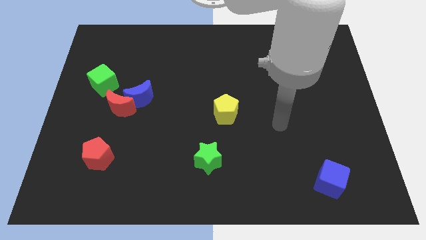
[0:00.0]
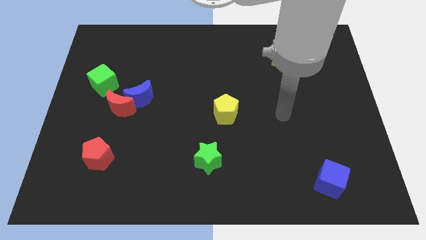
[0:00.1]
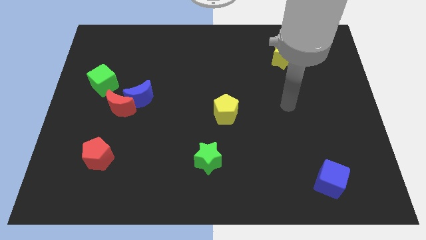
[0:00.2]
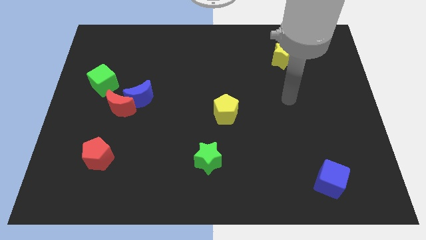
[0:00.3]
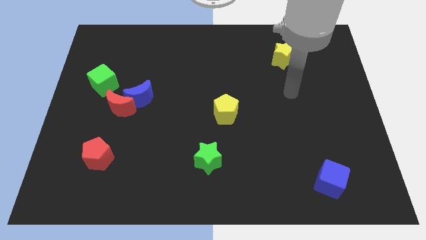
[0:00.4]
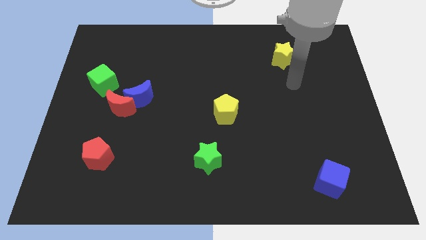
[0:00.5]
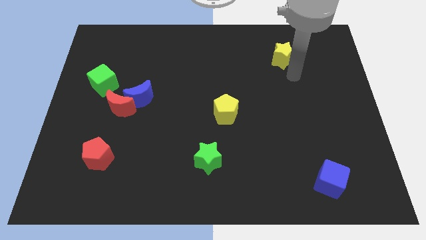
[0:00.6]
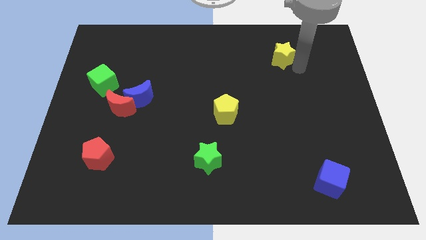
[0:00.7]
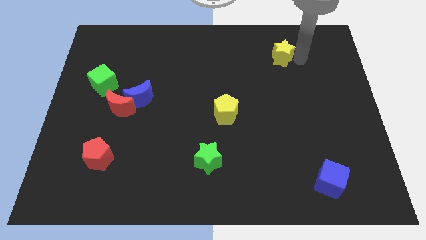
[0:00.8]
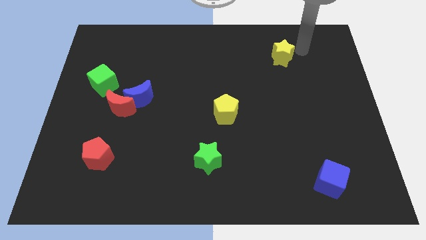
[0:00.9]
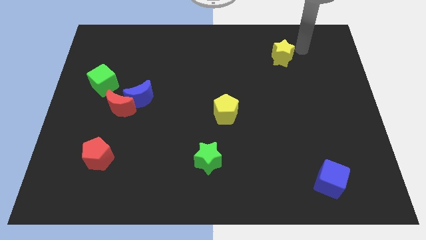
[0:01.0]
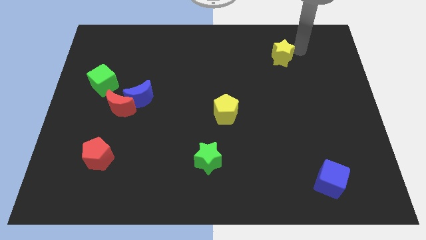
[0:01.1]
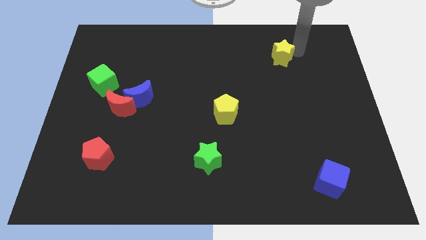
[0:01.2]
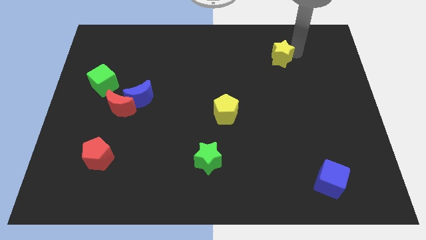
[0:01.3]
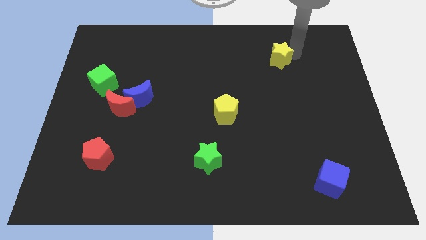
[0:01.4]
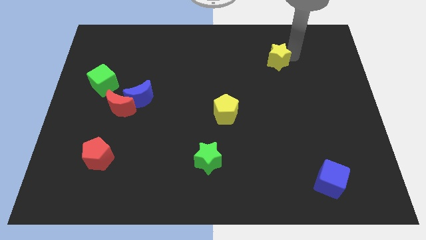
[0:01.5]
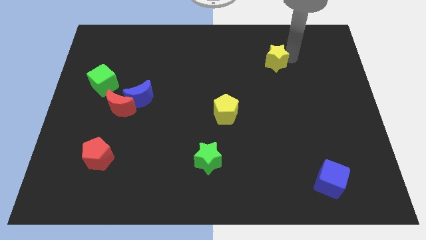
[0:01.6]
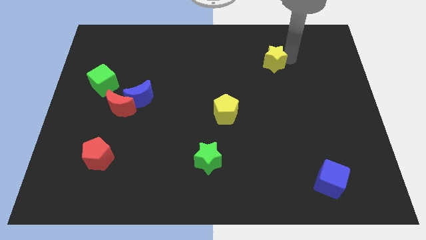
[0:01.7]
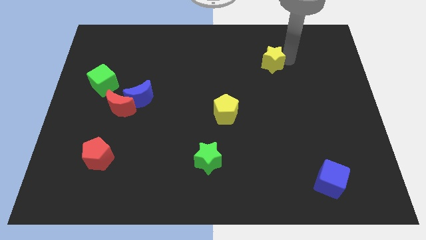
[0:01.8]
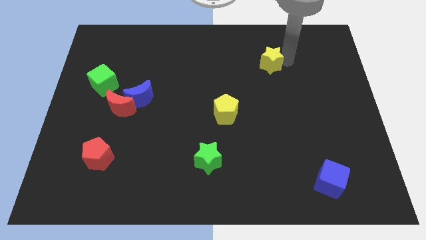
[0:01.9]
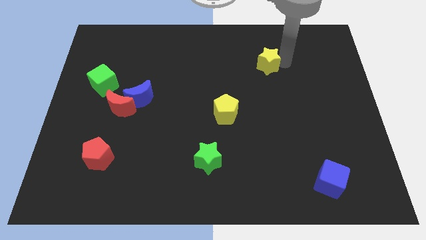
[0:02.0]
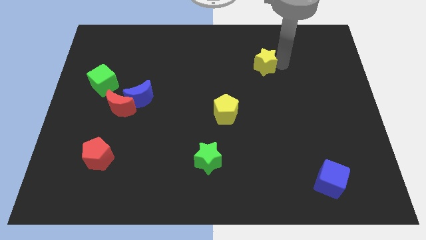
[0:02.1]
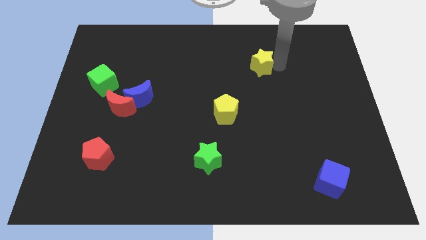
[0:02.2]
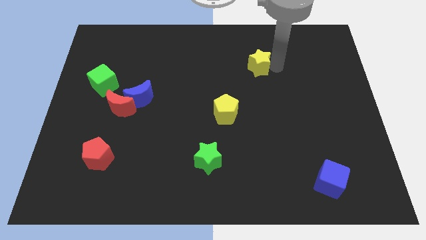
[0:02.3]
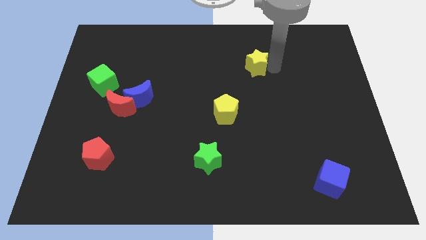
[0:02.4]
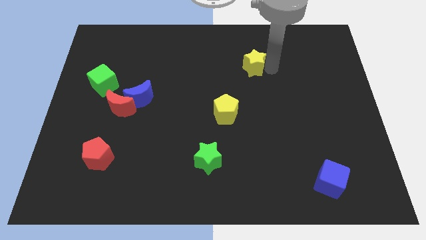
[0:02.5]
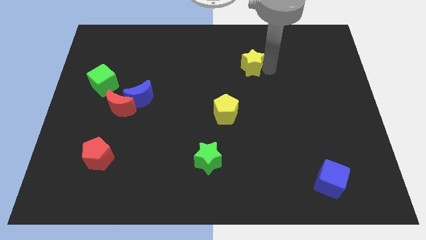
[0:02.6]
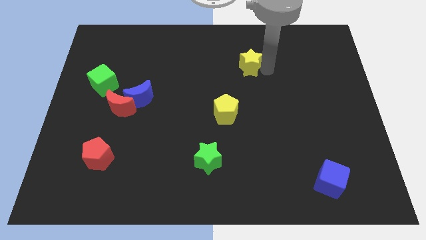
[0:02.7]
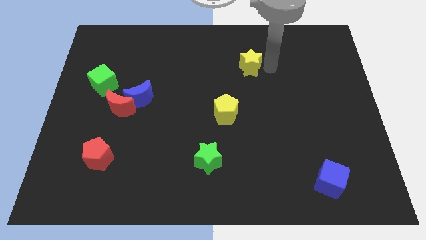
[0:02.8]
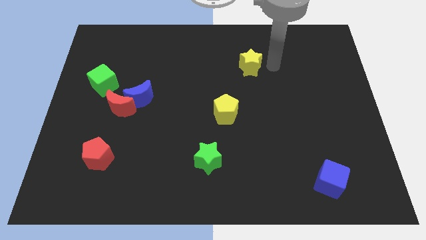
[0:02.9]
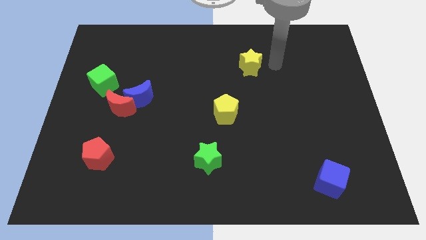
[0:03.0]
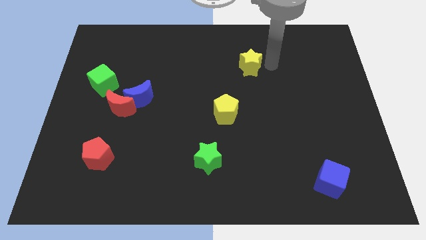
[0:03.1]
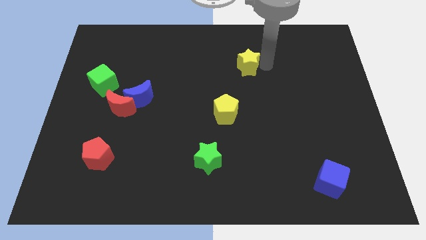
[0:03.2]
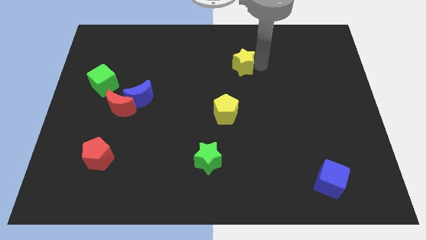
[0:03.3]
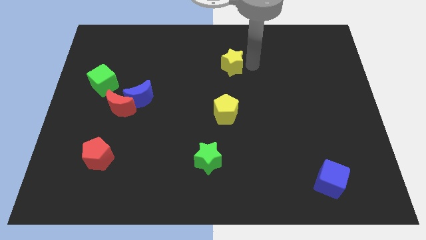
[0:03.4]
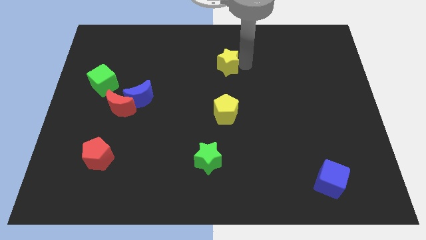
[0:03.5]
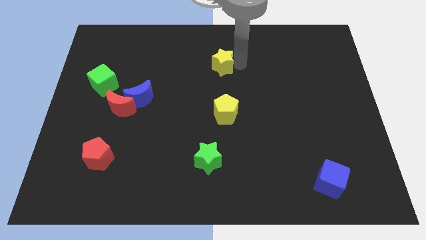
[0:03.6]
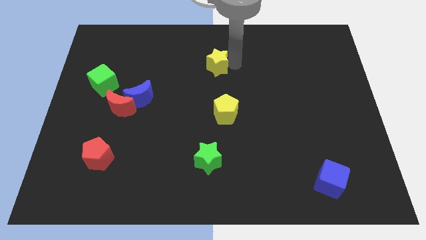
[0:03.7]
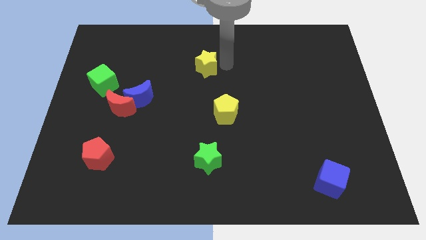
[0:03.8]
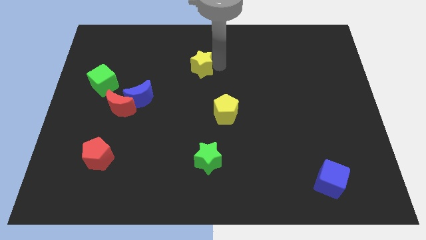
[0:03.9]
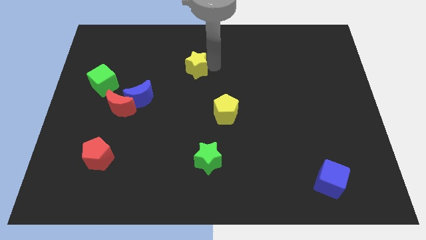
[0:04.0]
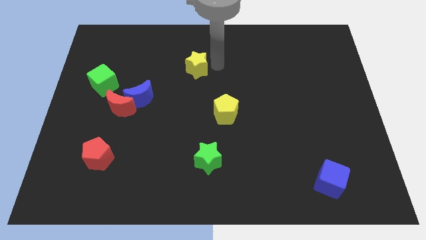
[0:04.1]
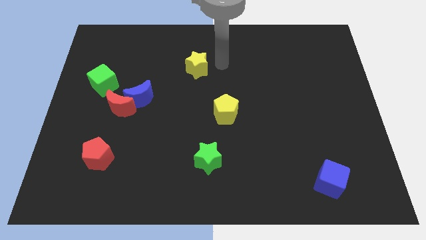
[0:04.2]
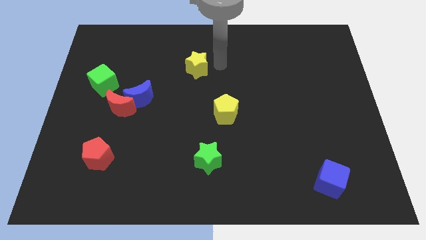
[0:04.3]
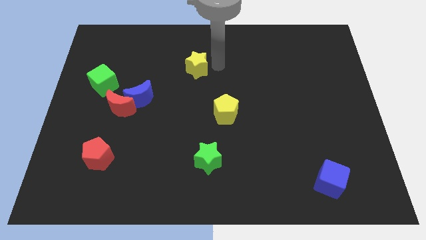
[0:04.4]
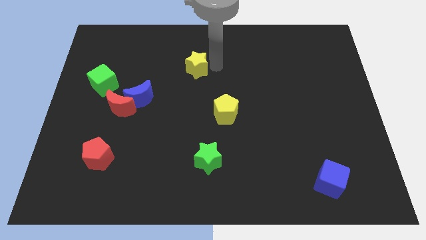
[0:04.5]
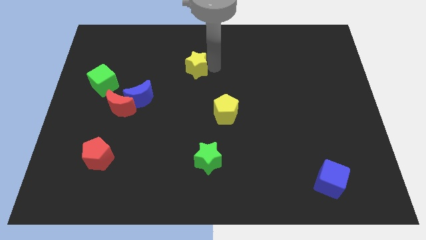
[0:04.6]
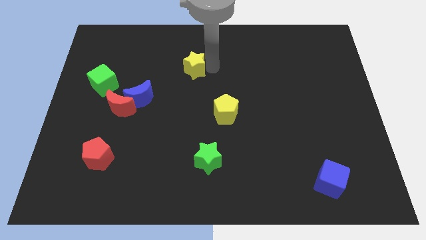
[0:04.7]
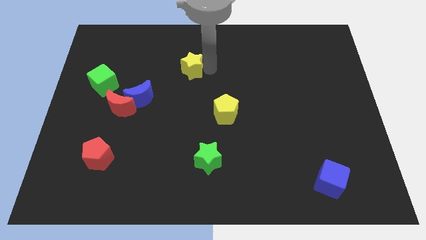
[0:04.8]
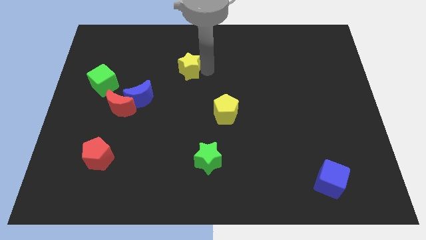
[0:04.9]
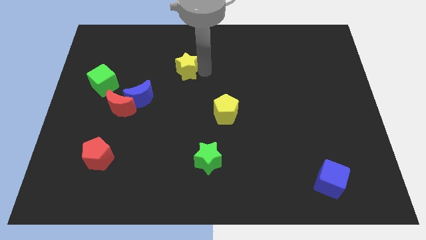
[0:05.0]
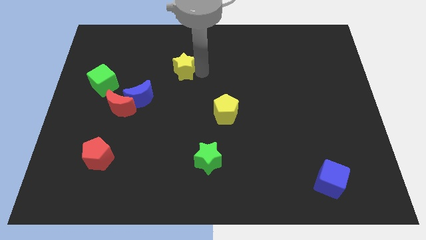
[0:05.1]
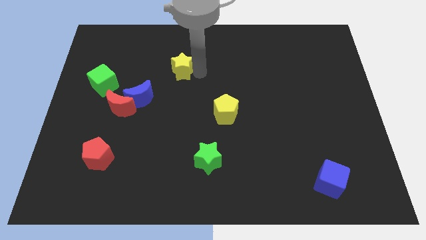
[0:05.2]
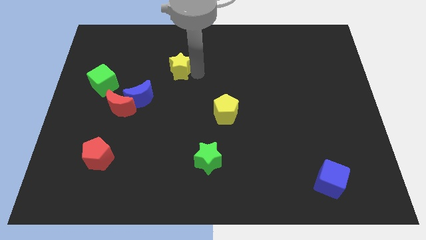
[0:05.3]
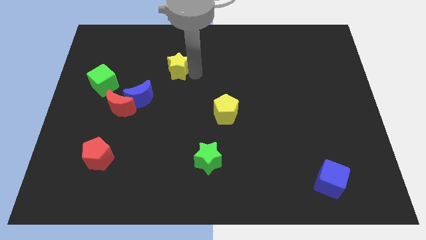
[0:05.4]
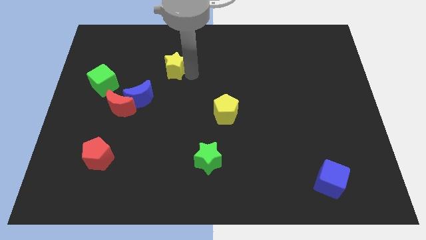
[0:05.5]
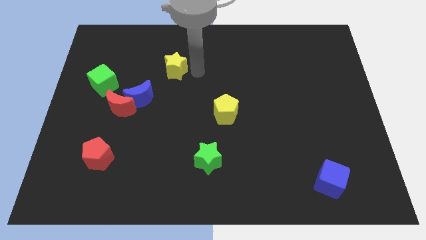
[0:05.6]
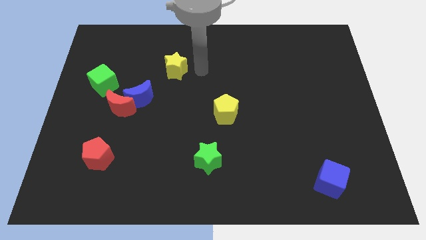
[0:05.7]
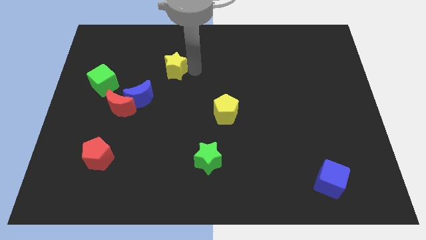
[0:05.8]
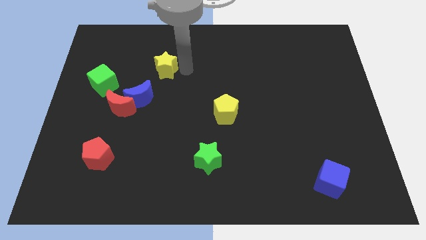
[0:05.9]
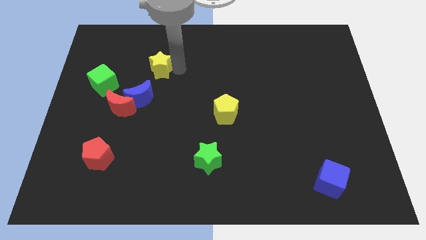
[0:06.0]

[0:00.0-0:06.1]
move the yellow star to the top side of the blue moon

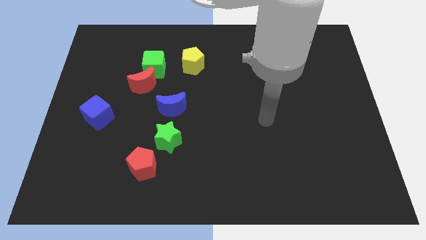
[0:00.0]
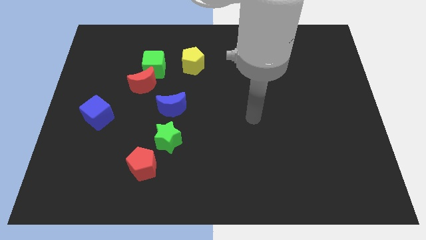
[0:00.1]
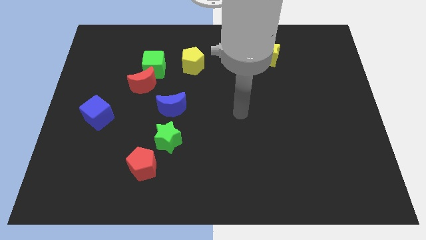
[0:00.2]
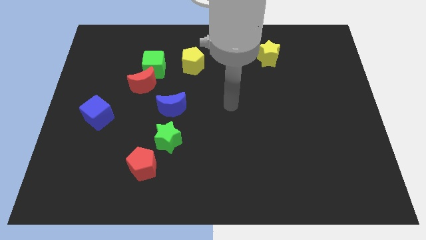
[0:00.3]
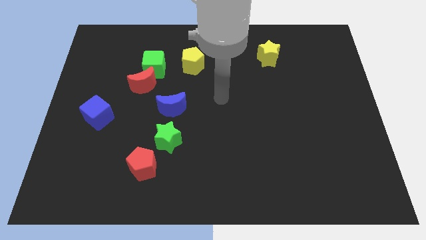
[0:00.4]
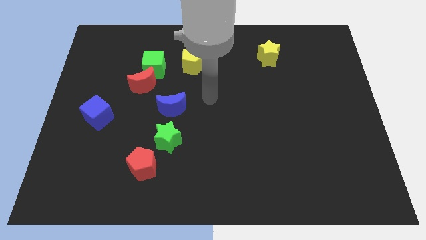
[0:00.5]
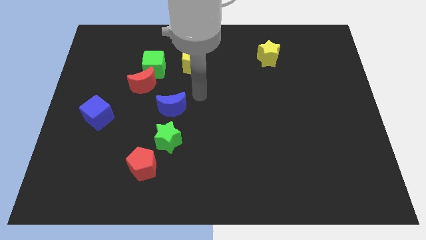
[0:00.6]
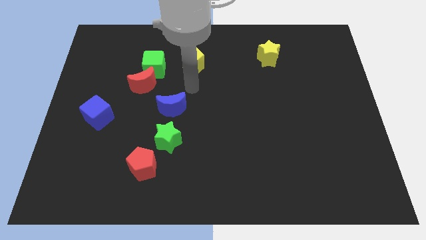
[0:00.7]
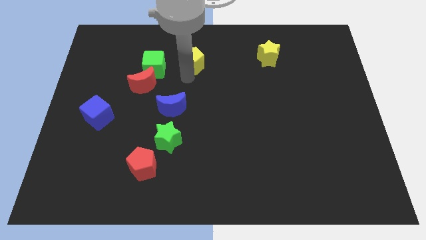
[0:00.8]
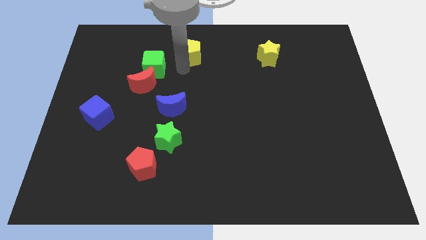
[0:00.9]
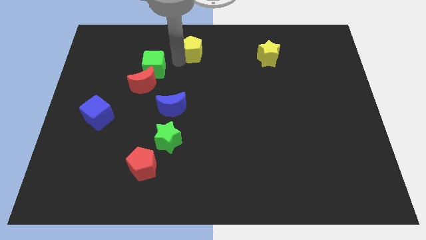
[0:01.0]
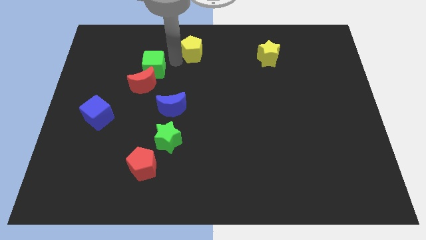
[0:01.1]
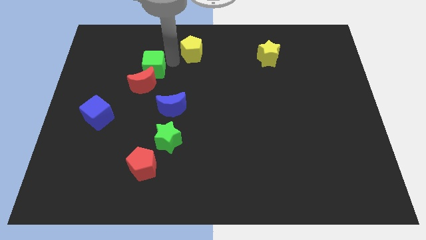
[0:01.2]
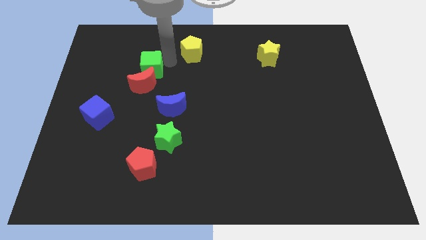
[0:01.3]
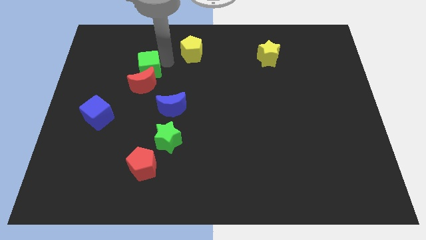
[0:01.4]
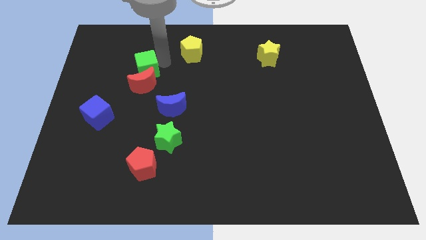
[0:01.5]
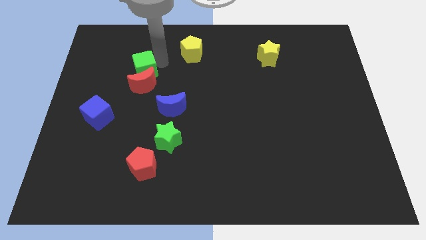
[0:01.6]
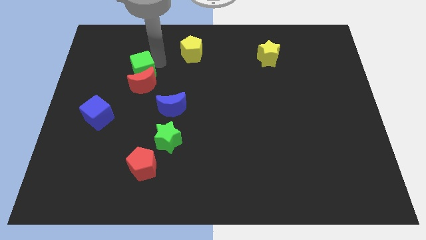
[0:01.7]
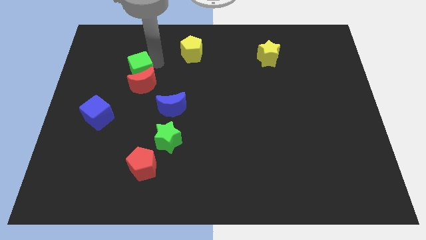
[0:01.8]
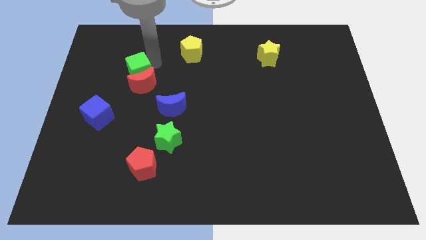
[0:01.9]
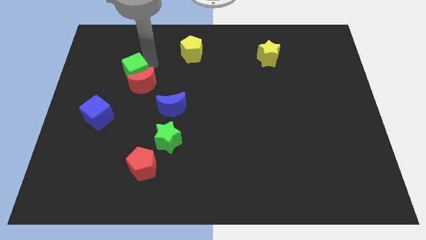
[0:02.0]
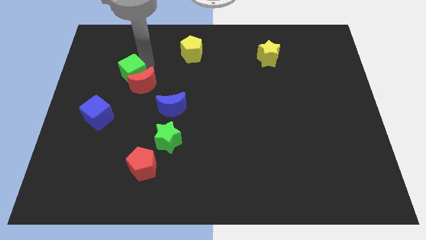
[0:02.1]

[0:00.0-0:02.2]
move the green cube left of the red moon
